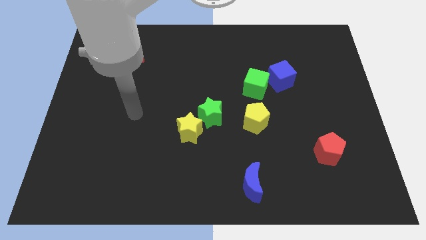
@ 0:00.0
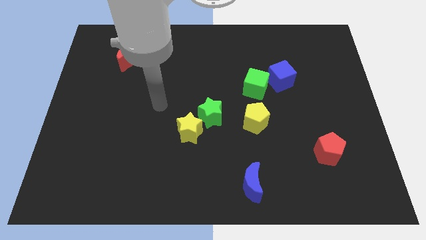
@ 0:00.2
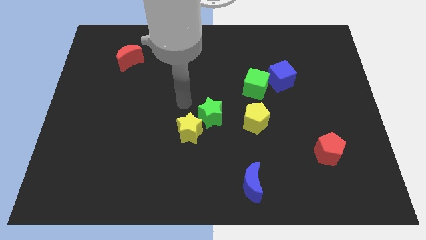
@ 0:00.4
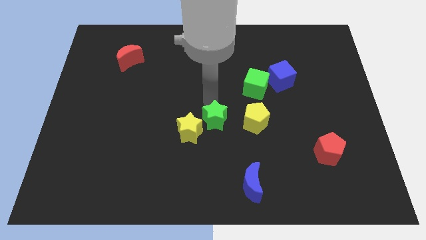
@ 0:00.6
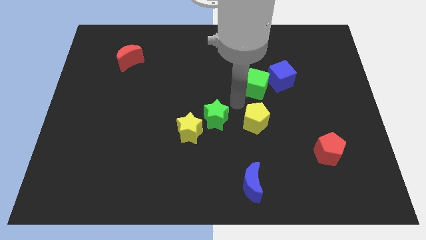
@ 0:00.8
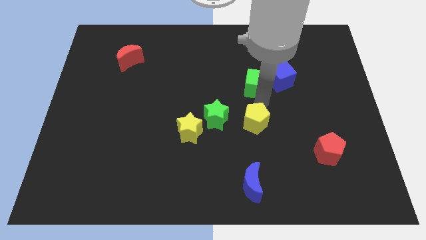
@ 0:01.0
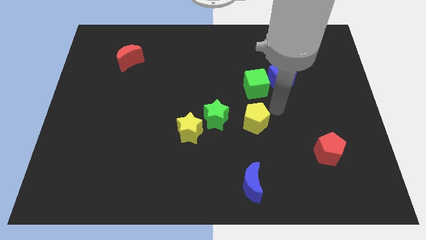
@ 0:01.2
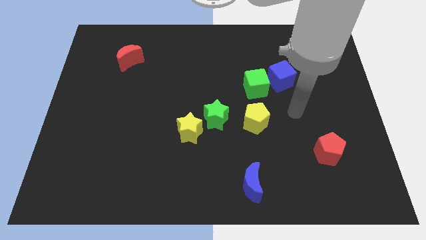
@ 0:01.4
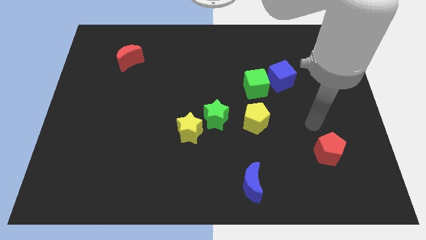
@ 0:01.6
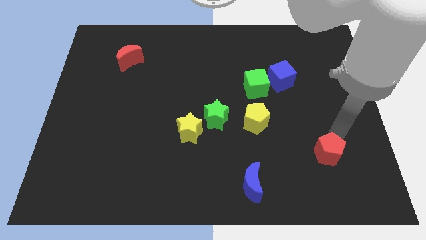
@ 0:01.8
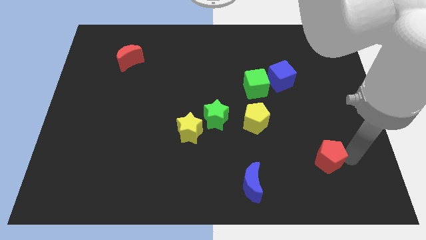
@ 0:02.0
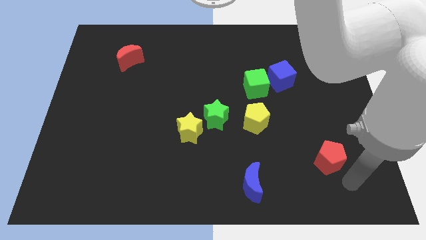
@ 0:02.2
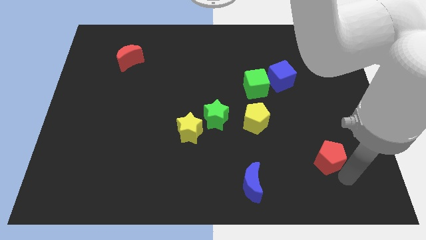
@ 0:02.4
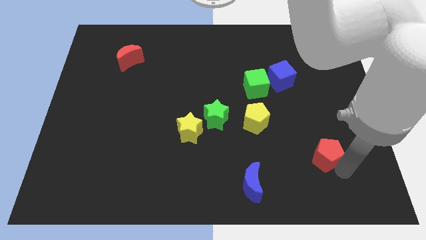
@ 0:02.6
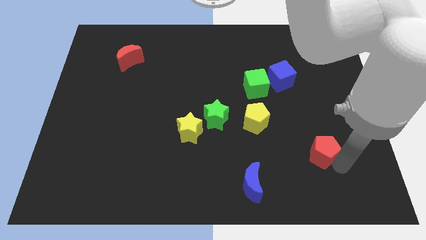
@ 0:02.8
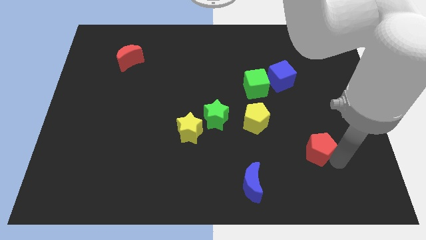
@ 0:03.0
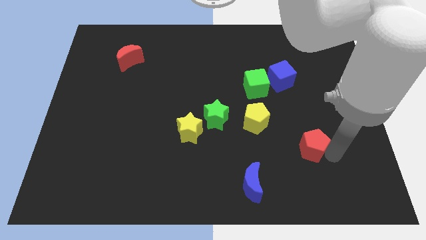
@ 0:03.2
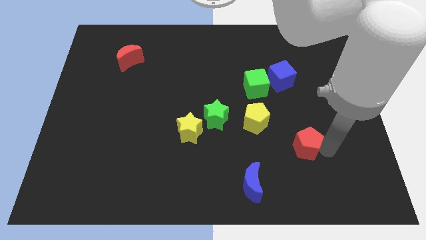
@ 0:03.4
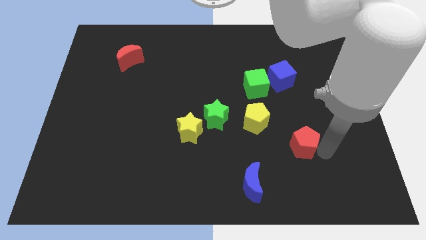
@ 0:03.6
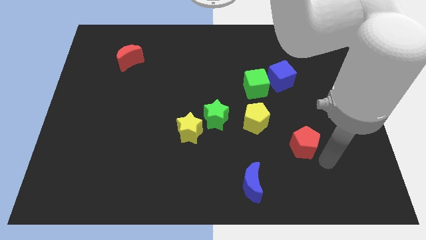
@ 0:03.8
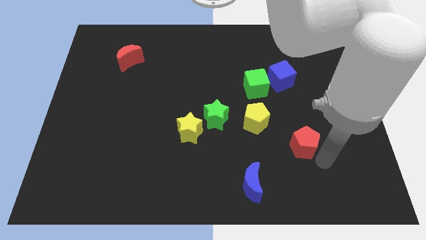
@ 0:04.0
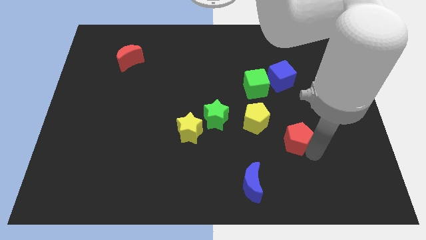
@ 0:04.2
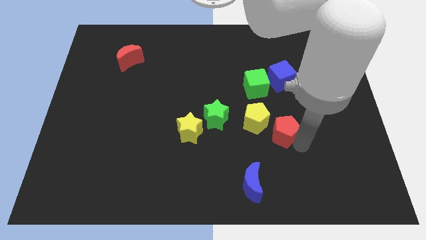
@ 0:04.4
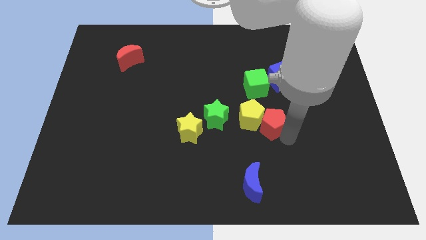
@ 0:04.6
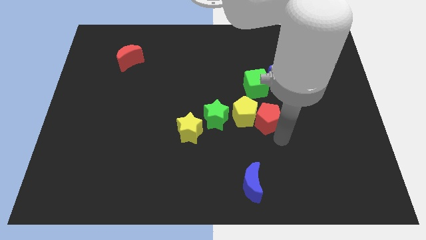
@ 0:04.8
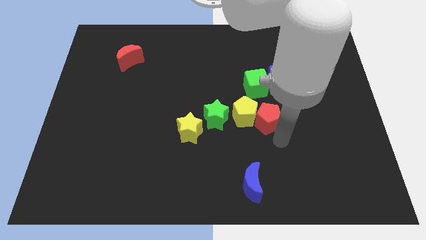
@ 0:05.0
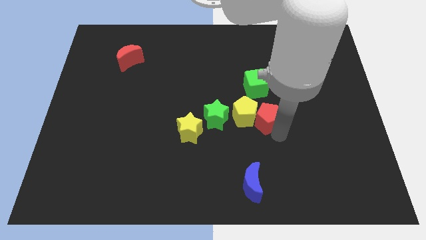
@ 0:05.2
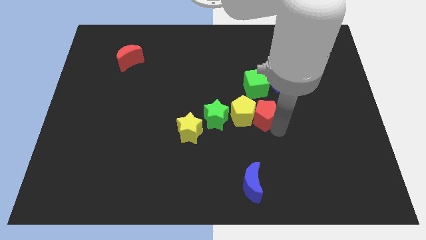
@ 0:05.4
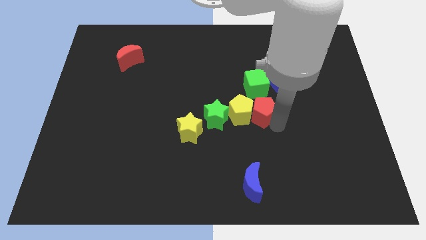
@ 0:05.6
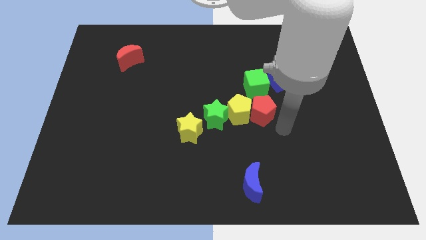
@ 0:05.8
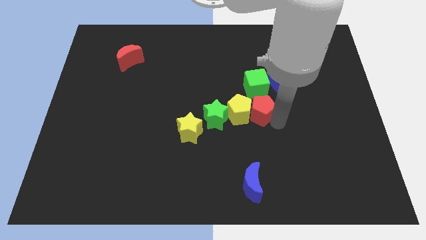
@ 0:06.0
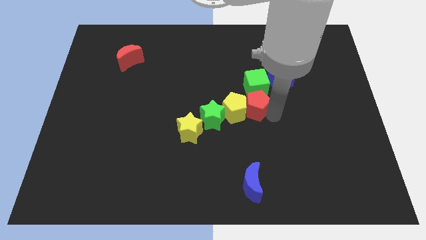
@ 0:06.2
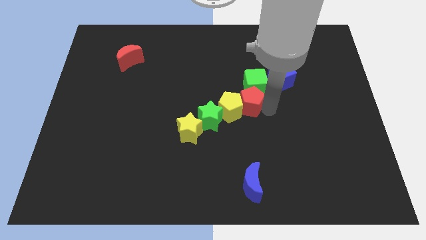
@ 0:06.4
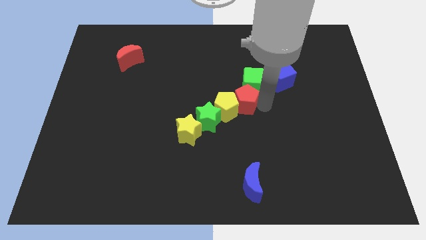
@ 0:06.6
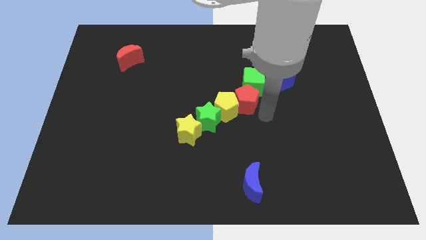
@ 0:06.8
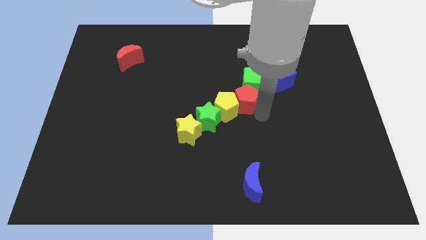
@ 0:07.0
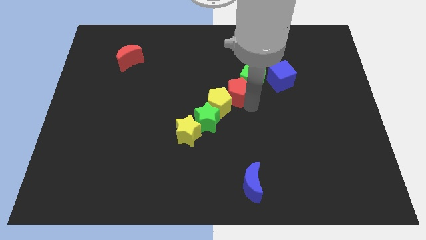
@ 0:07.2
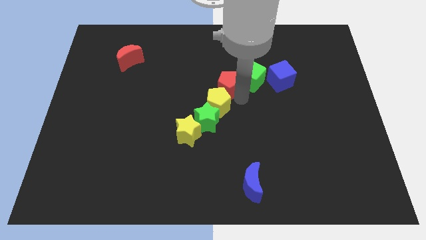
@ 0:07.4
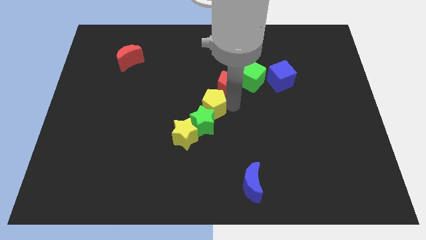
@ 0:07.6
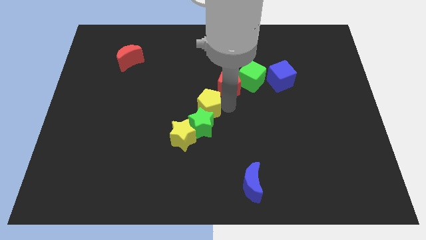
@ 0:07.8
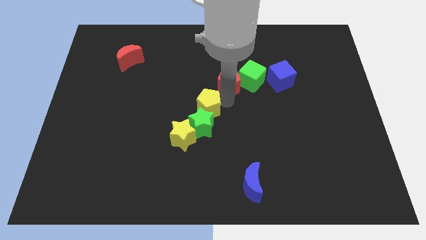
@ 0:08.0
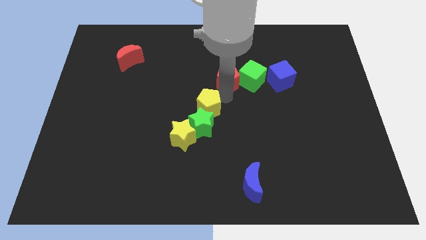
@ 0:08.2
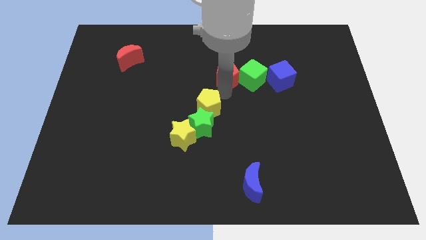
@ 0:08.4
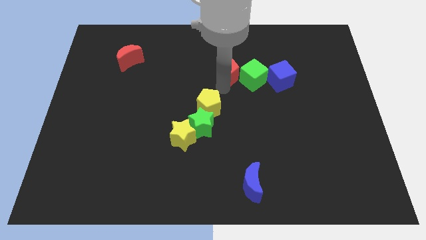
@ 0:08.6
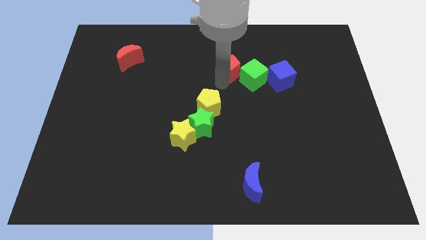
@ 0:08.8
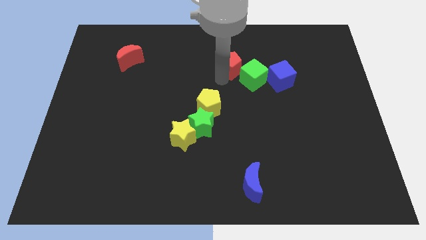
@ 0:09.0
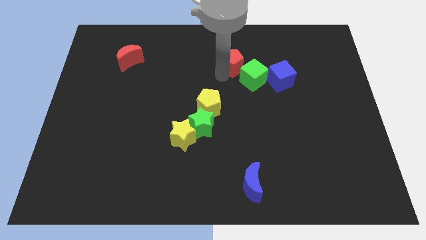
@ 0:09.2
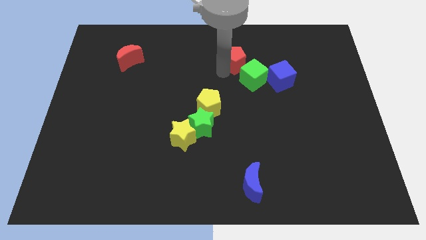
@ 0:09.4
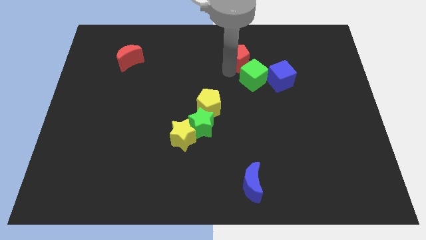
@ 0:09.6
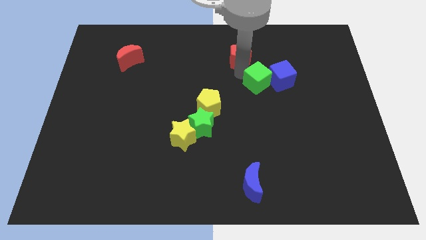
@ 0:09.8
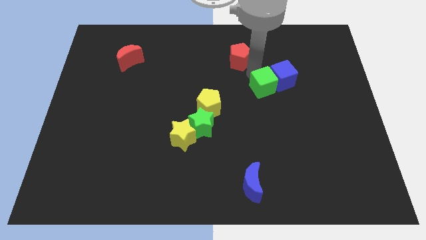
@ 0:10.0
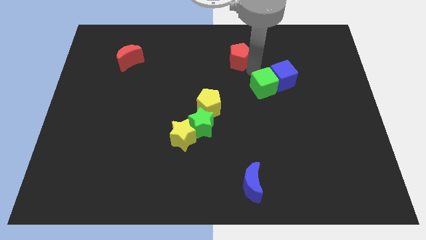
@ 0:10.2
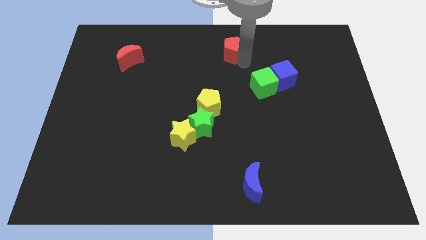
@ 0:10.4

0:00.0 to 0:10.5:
put the red pentagon to the top
